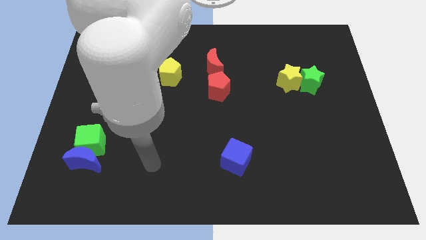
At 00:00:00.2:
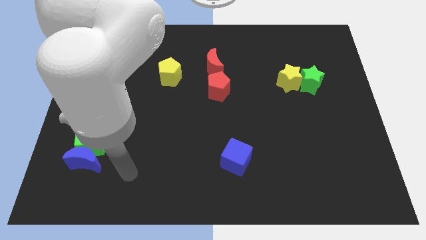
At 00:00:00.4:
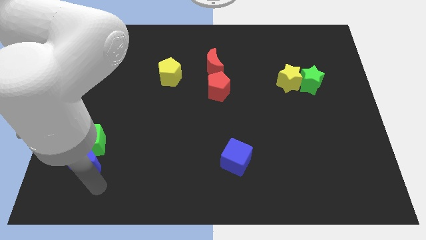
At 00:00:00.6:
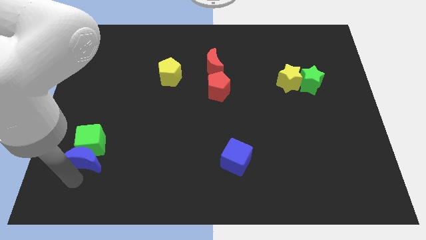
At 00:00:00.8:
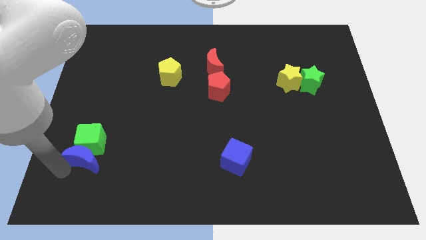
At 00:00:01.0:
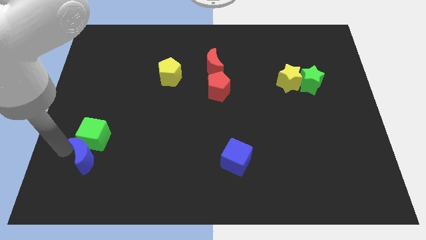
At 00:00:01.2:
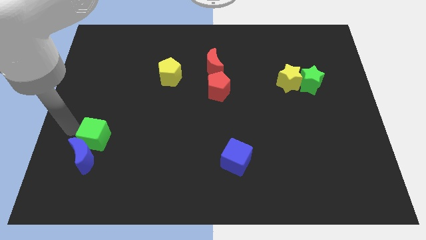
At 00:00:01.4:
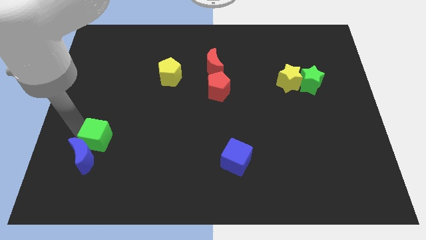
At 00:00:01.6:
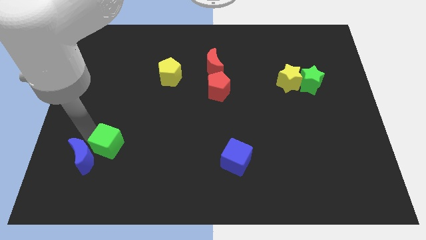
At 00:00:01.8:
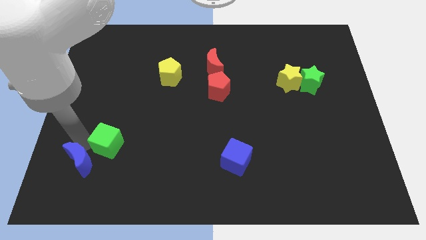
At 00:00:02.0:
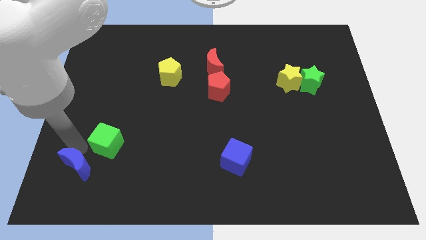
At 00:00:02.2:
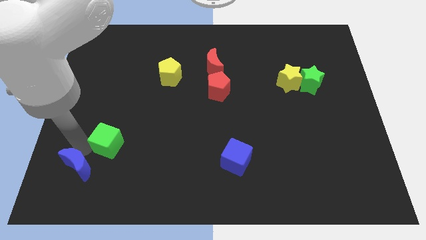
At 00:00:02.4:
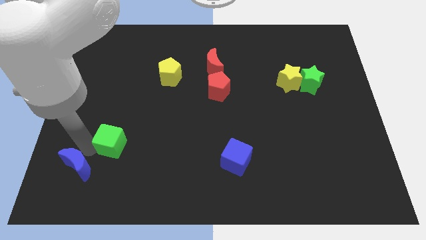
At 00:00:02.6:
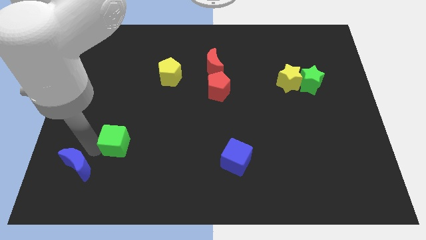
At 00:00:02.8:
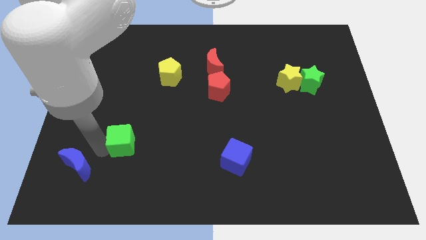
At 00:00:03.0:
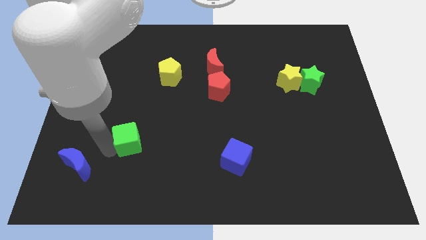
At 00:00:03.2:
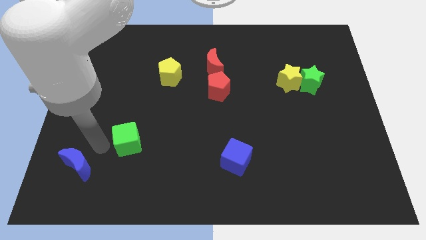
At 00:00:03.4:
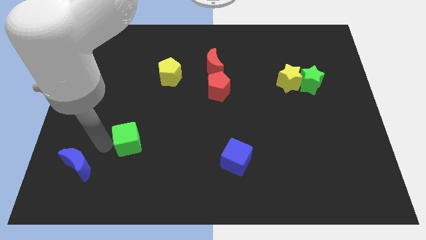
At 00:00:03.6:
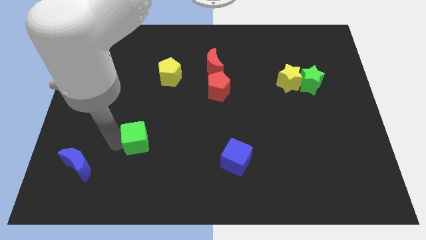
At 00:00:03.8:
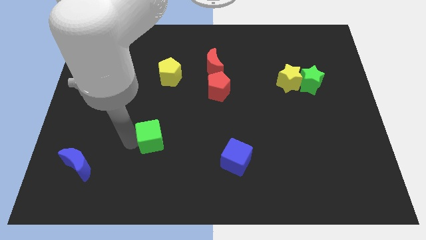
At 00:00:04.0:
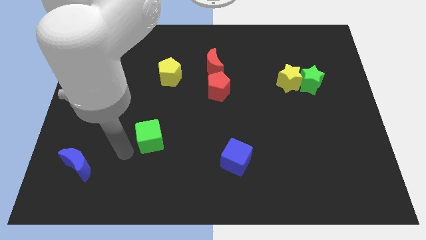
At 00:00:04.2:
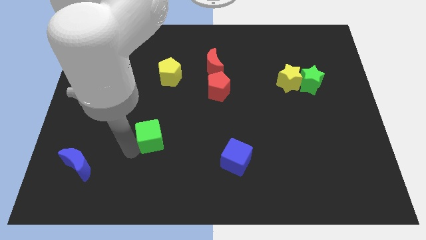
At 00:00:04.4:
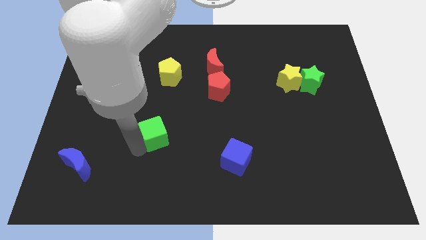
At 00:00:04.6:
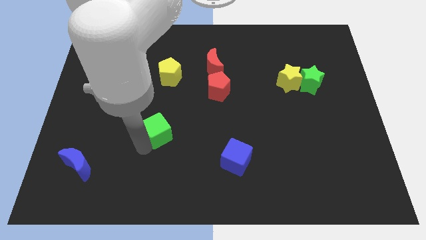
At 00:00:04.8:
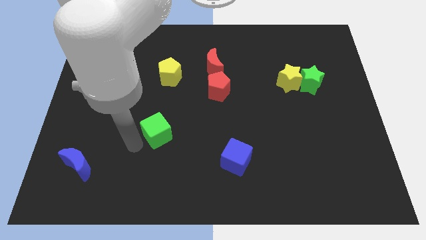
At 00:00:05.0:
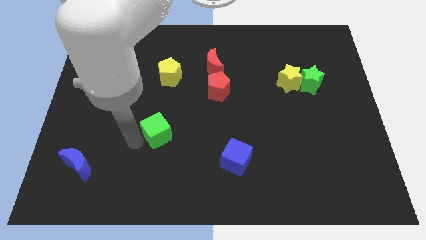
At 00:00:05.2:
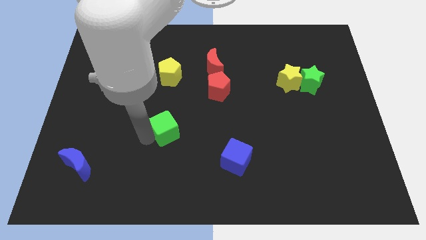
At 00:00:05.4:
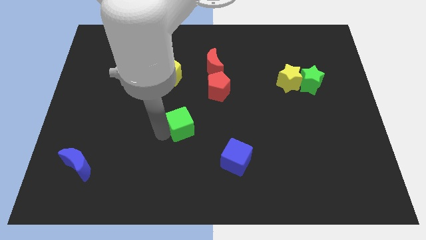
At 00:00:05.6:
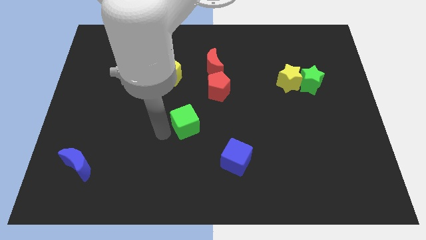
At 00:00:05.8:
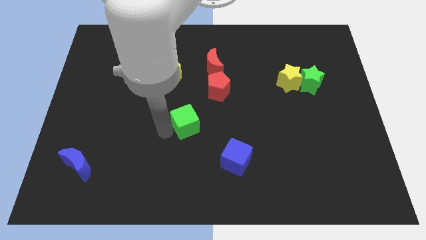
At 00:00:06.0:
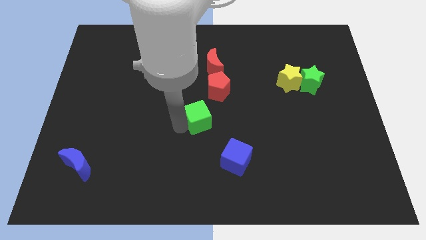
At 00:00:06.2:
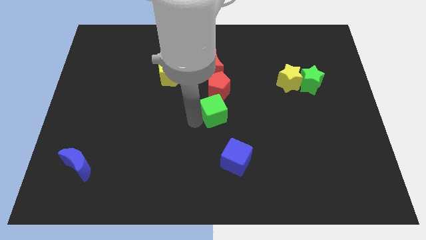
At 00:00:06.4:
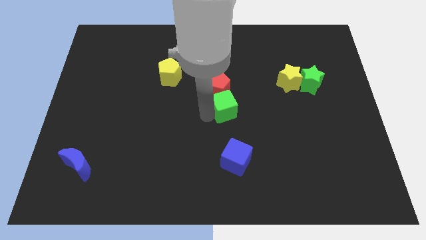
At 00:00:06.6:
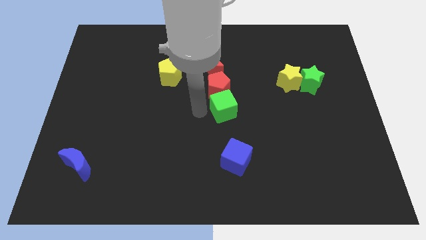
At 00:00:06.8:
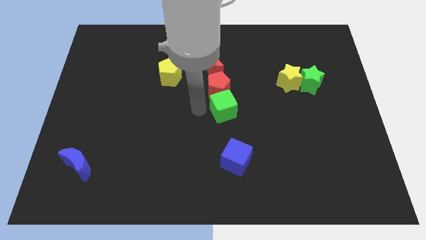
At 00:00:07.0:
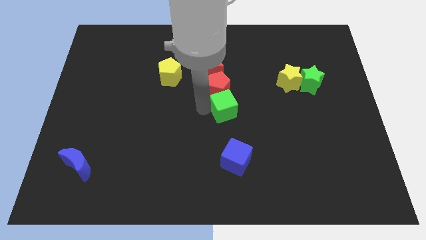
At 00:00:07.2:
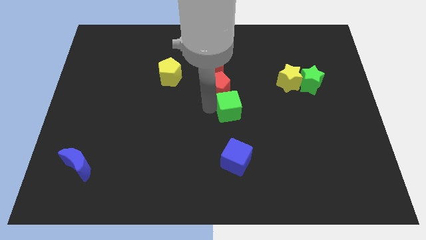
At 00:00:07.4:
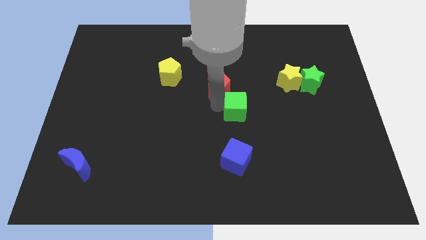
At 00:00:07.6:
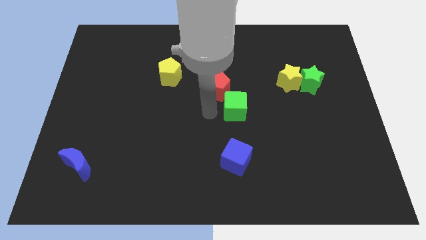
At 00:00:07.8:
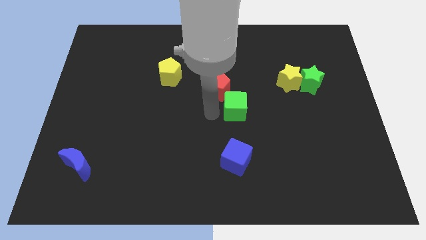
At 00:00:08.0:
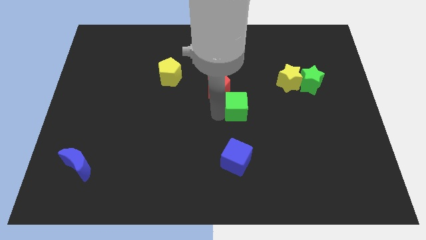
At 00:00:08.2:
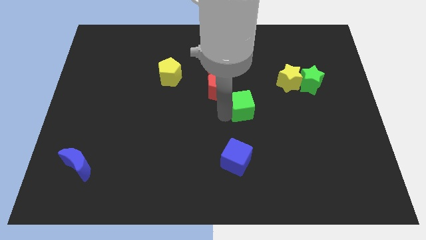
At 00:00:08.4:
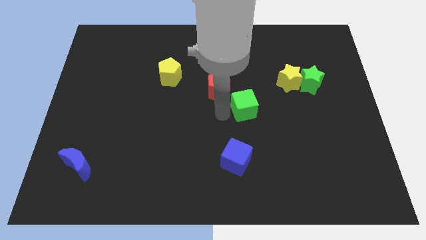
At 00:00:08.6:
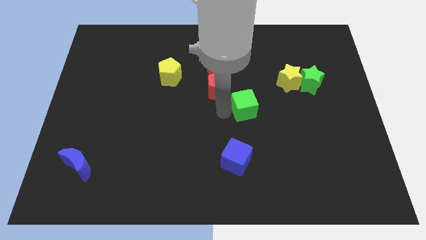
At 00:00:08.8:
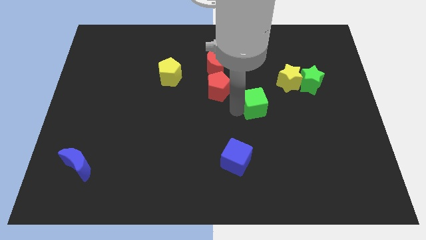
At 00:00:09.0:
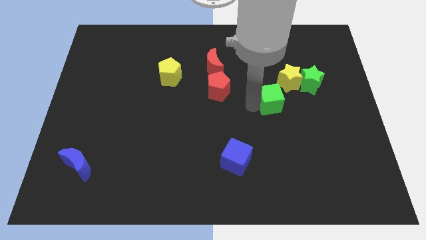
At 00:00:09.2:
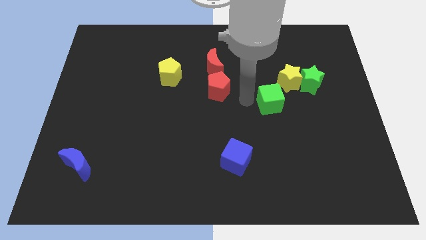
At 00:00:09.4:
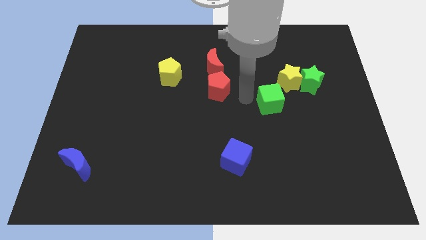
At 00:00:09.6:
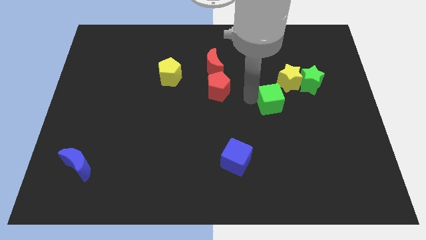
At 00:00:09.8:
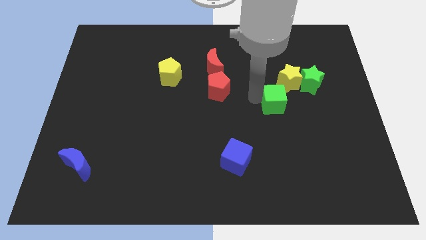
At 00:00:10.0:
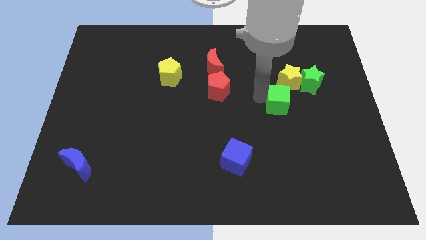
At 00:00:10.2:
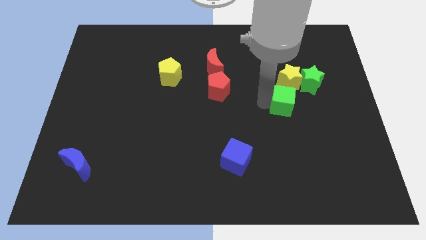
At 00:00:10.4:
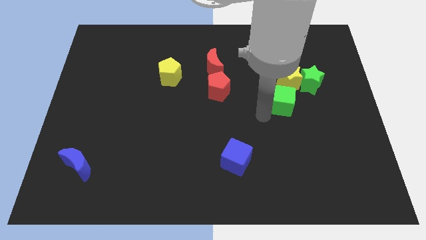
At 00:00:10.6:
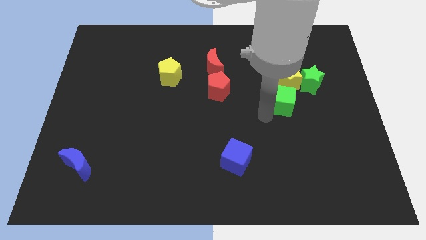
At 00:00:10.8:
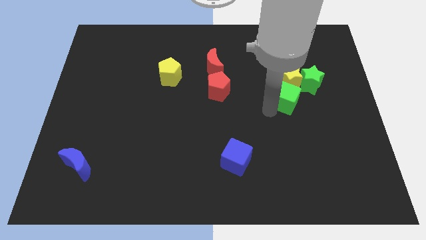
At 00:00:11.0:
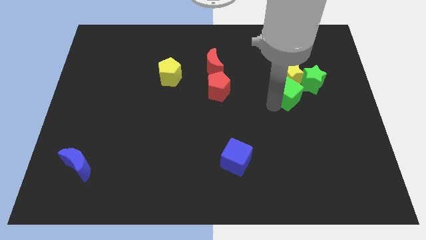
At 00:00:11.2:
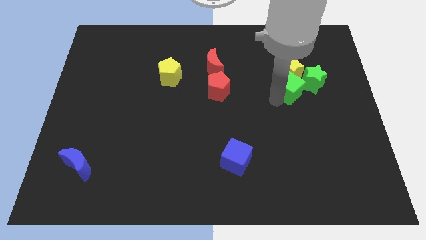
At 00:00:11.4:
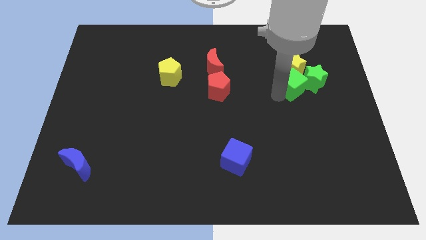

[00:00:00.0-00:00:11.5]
put the green cube towards the green star

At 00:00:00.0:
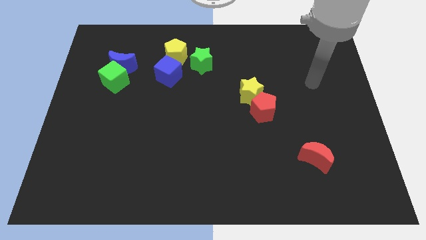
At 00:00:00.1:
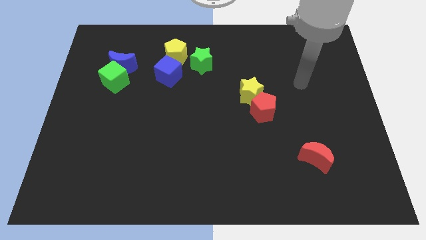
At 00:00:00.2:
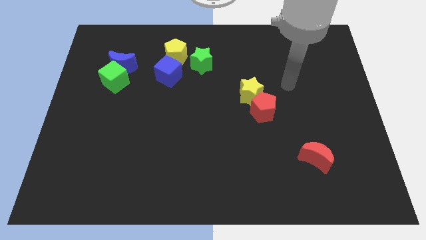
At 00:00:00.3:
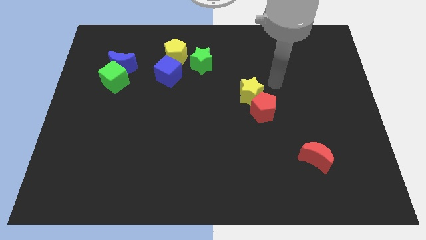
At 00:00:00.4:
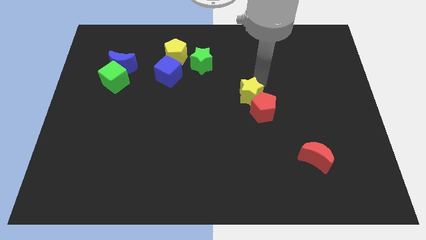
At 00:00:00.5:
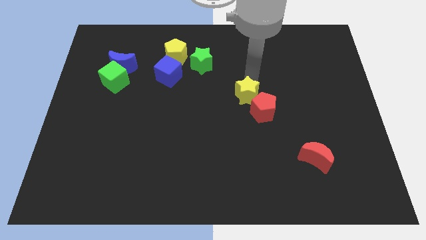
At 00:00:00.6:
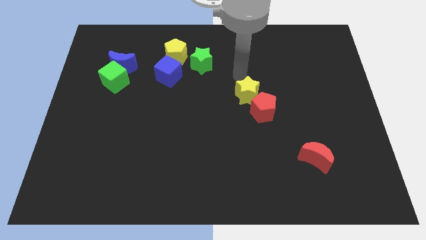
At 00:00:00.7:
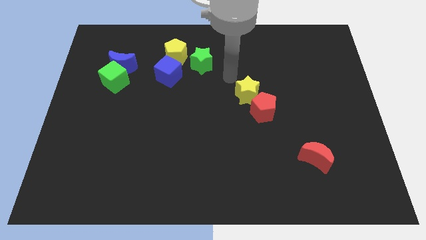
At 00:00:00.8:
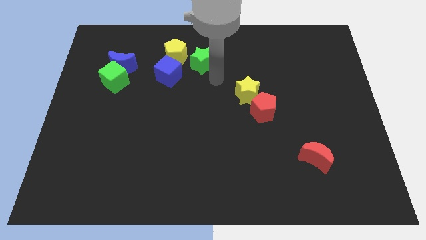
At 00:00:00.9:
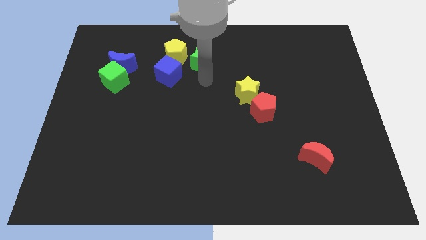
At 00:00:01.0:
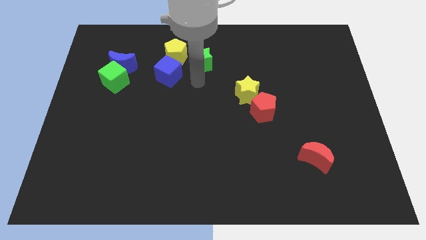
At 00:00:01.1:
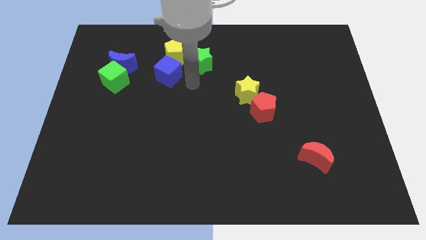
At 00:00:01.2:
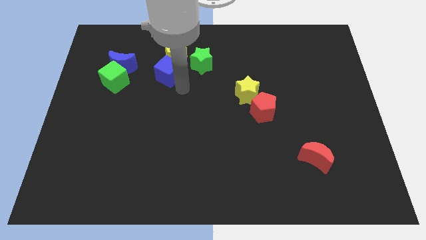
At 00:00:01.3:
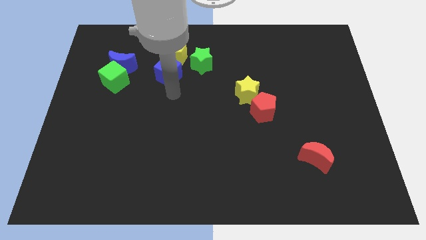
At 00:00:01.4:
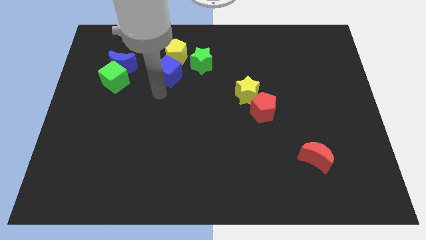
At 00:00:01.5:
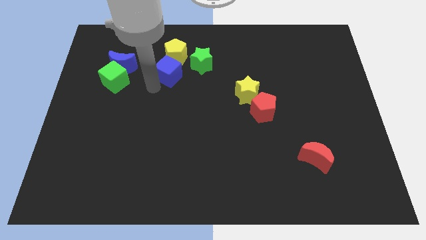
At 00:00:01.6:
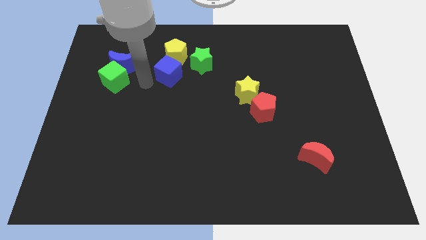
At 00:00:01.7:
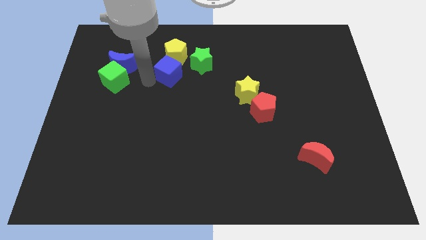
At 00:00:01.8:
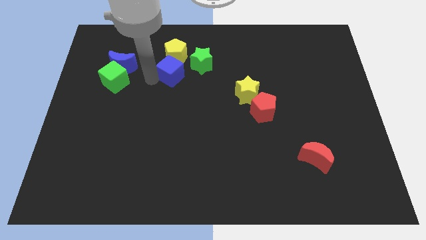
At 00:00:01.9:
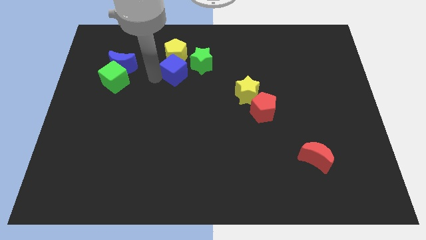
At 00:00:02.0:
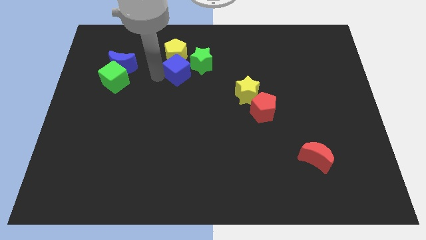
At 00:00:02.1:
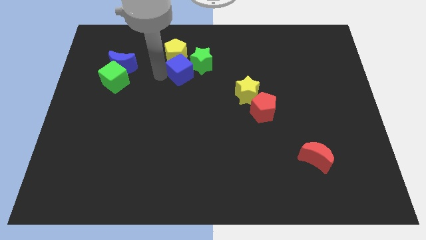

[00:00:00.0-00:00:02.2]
slide the blue cube close to the green star
